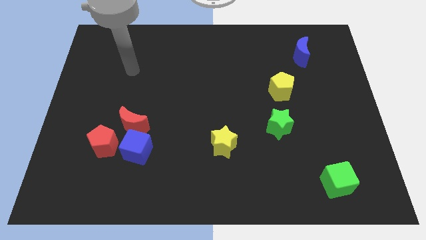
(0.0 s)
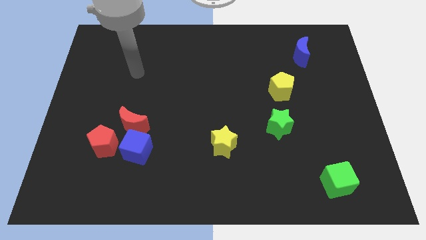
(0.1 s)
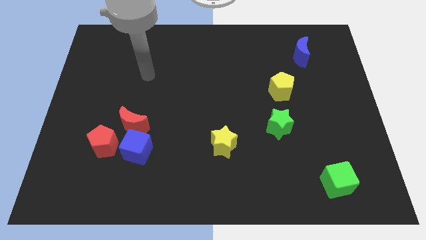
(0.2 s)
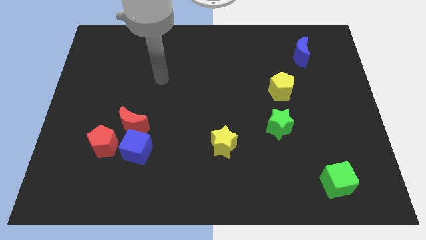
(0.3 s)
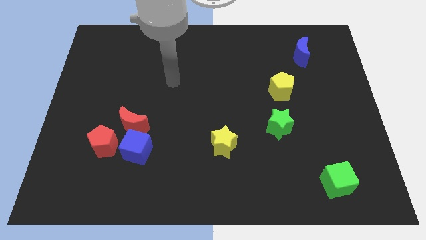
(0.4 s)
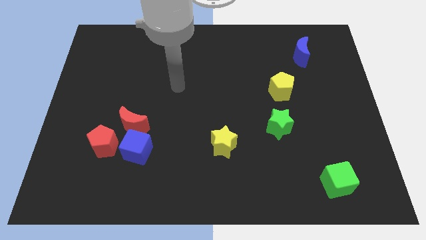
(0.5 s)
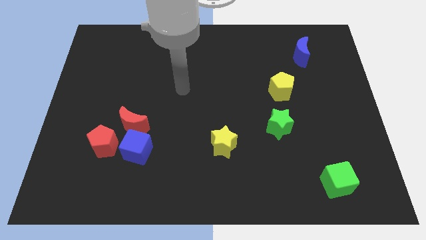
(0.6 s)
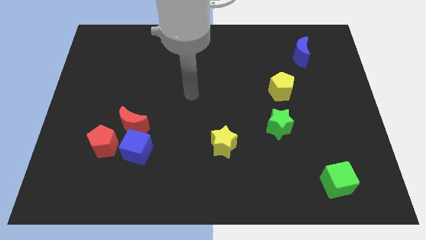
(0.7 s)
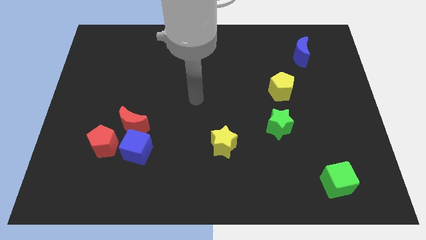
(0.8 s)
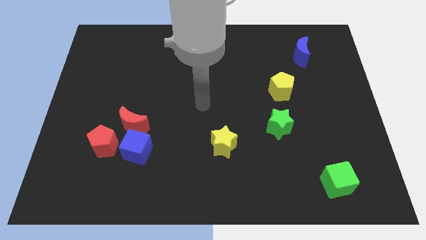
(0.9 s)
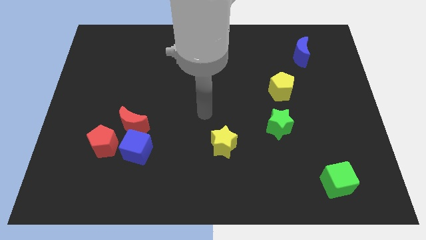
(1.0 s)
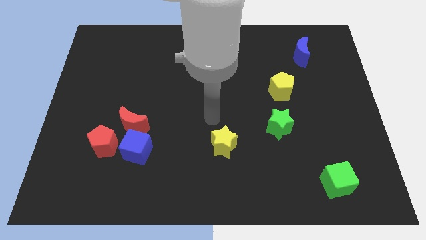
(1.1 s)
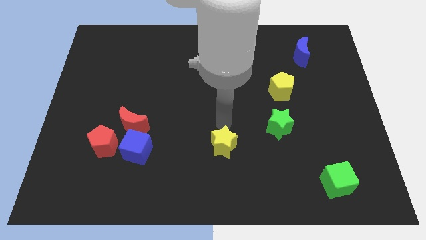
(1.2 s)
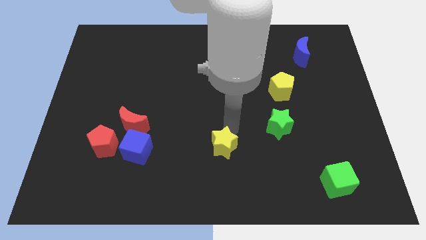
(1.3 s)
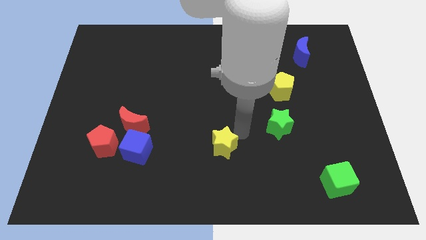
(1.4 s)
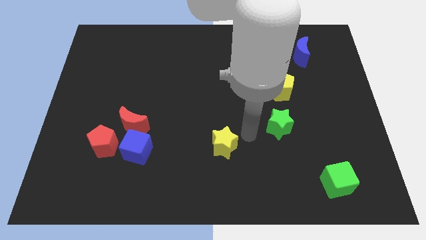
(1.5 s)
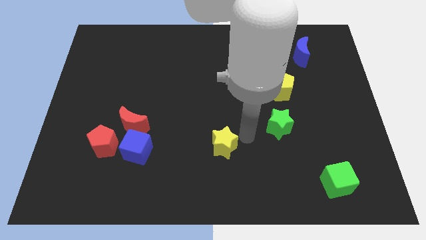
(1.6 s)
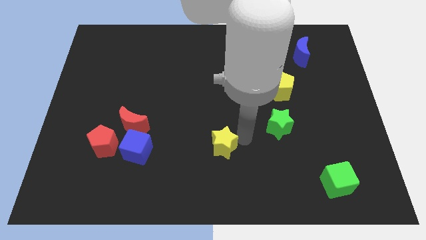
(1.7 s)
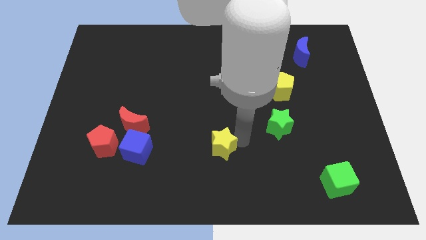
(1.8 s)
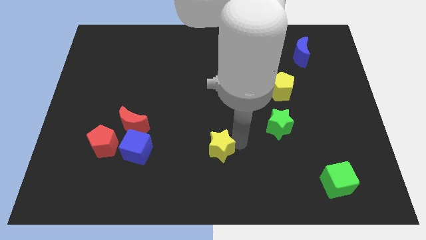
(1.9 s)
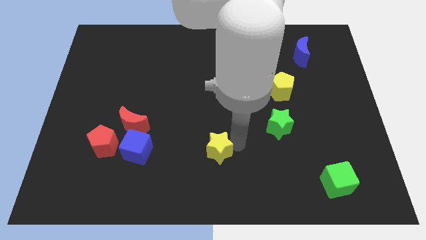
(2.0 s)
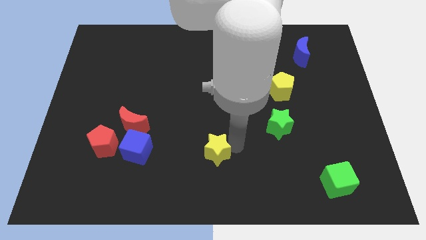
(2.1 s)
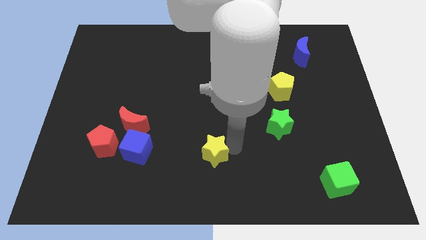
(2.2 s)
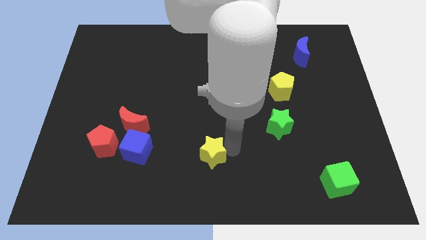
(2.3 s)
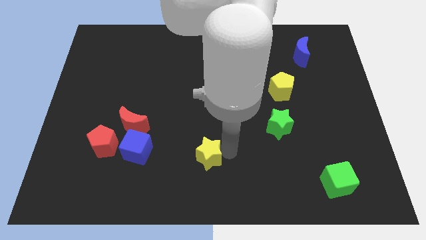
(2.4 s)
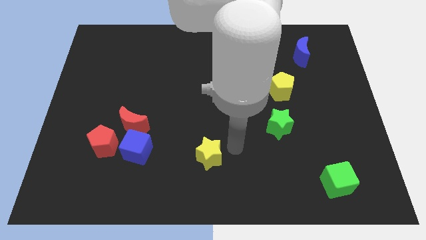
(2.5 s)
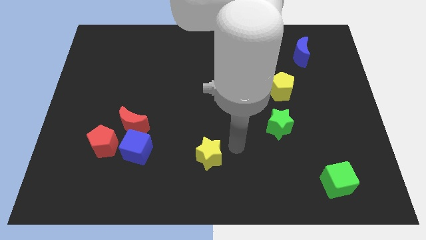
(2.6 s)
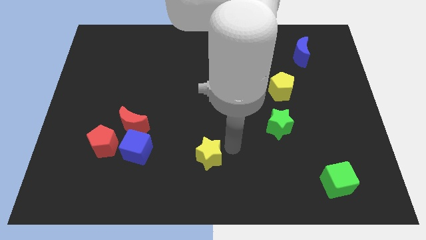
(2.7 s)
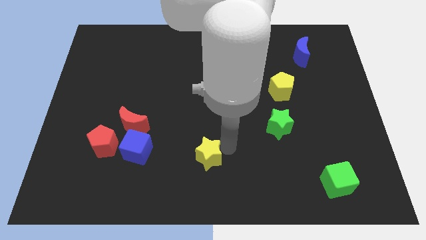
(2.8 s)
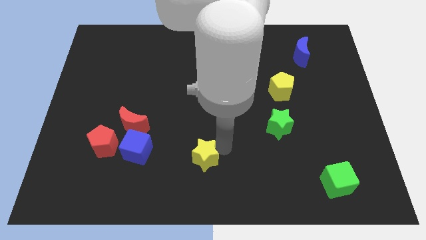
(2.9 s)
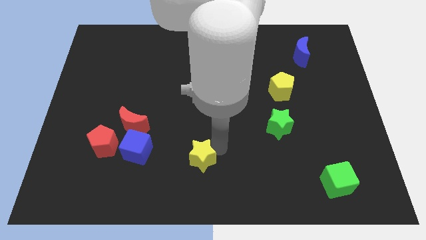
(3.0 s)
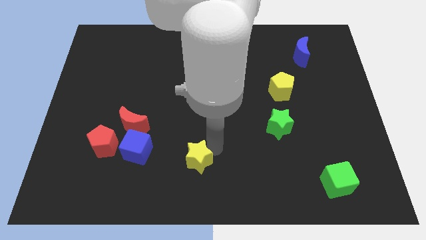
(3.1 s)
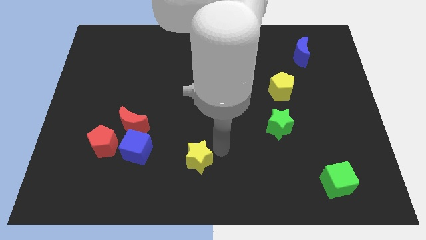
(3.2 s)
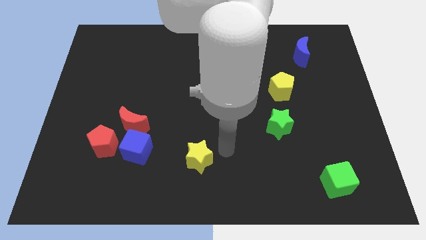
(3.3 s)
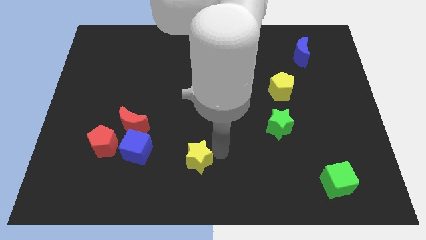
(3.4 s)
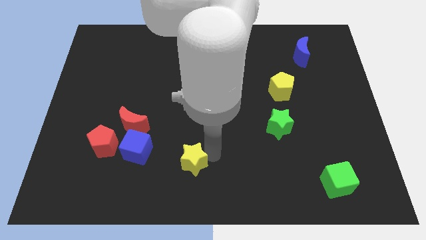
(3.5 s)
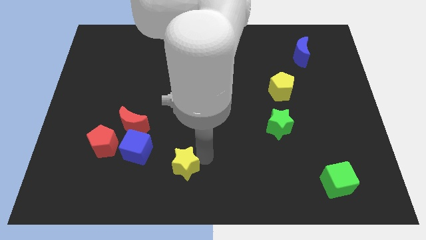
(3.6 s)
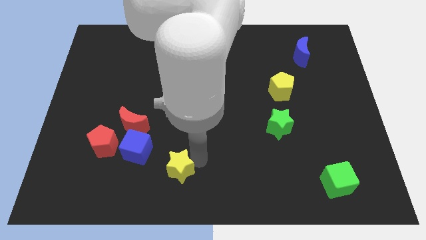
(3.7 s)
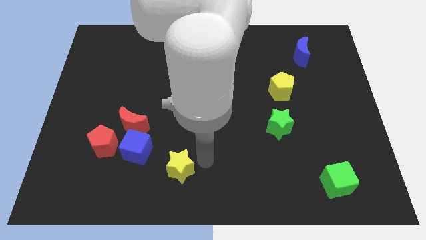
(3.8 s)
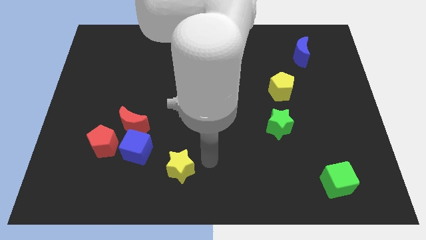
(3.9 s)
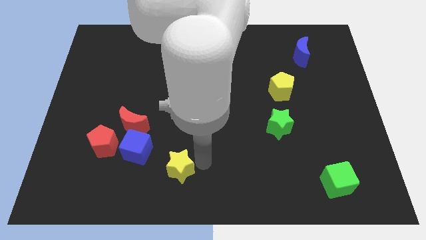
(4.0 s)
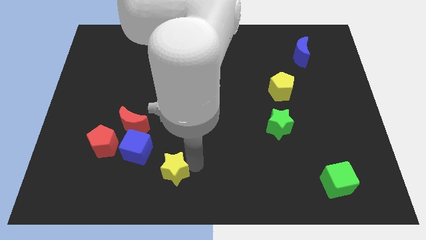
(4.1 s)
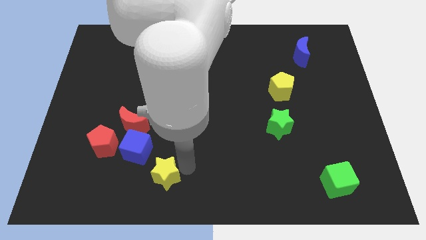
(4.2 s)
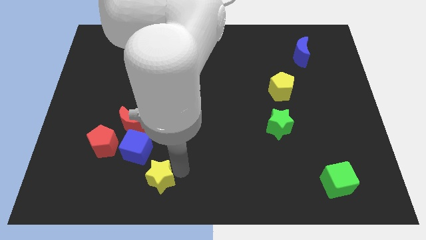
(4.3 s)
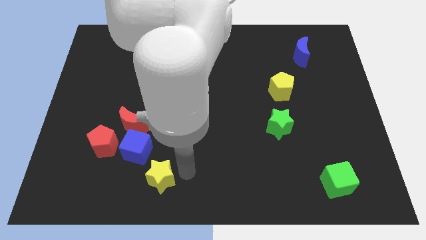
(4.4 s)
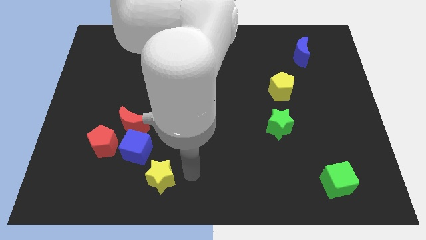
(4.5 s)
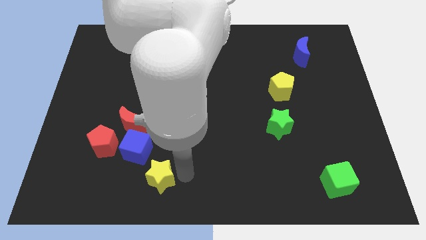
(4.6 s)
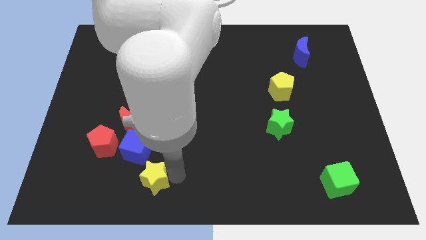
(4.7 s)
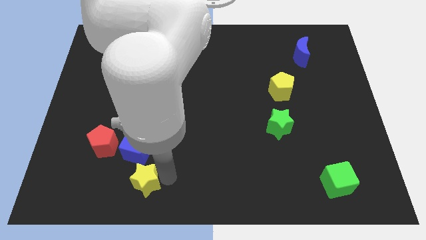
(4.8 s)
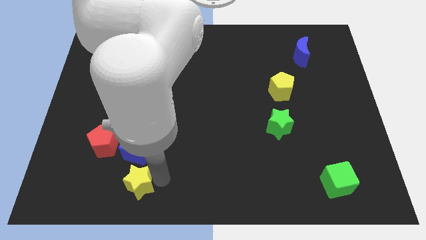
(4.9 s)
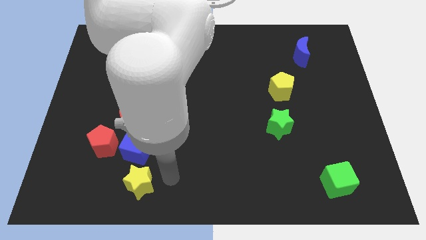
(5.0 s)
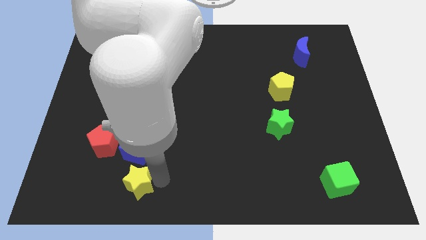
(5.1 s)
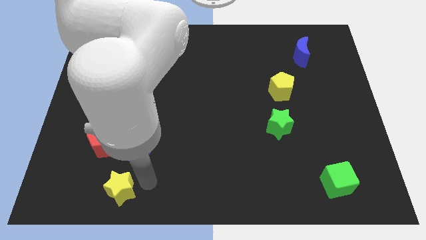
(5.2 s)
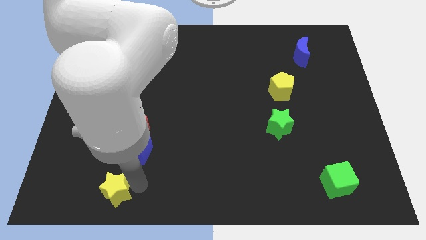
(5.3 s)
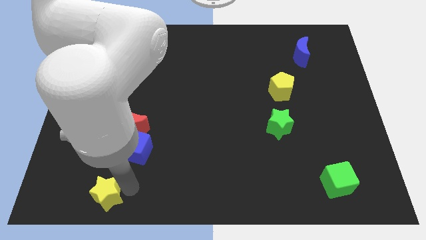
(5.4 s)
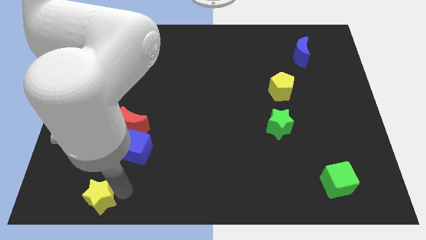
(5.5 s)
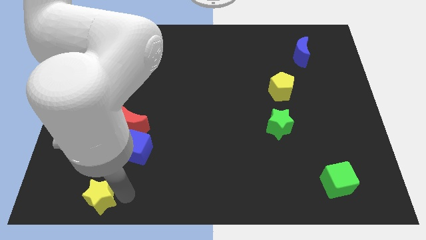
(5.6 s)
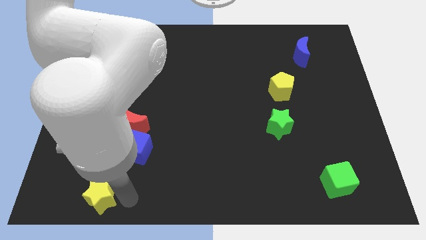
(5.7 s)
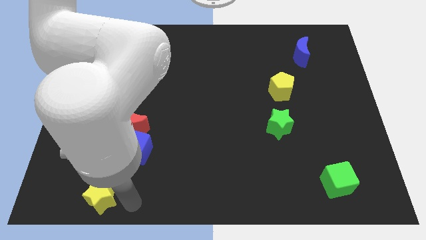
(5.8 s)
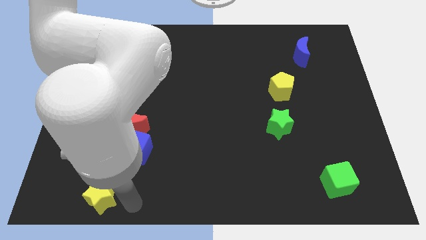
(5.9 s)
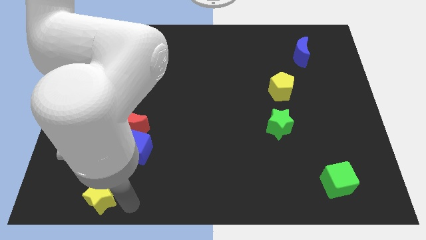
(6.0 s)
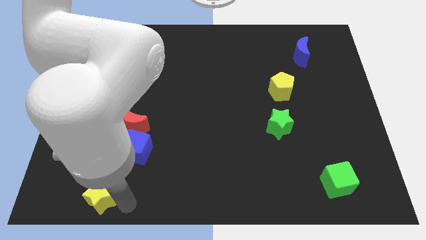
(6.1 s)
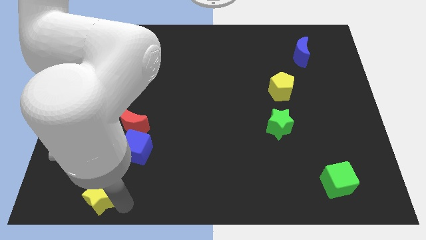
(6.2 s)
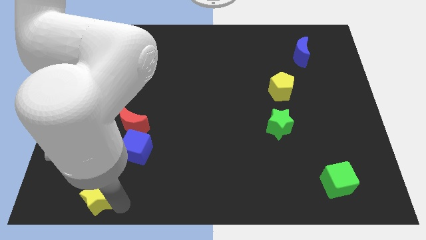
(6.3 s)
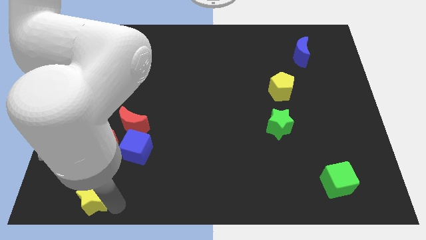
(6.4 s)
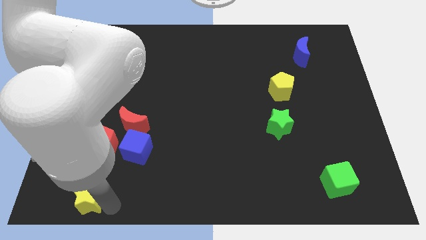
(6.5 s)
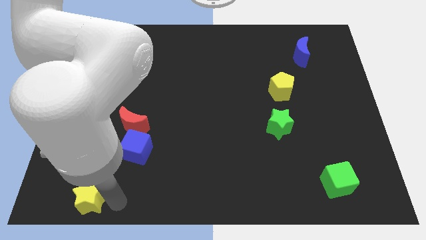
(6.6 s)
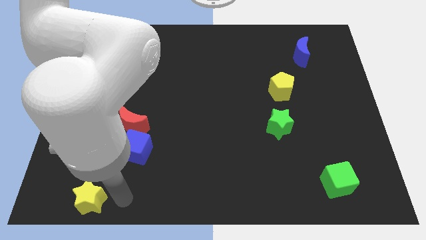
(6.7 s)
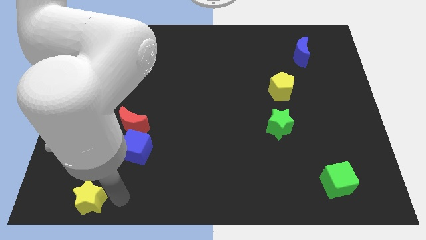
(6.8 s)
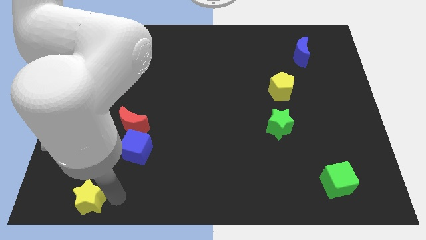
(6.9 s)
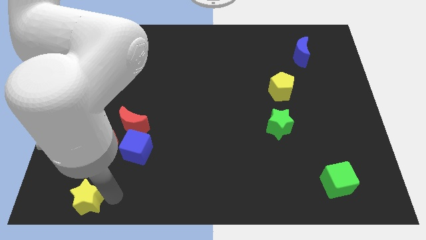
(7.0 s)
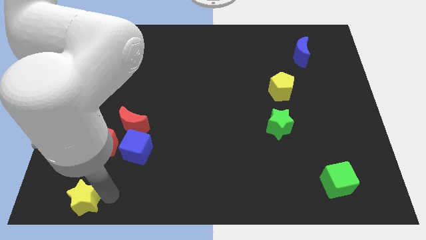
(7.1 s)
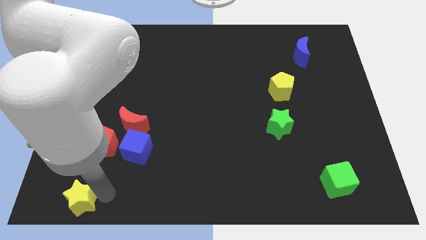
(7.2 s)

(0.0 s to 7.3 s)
slide the yellow star to the bottom left
